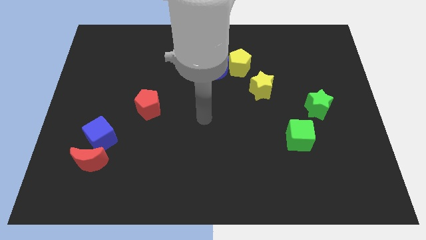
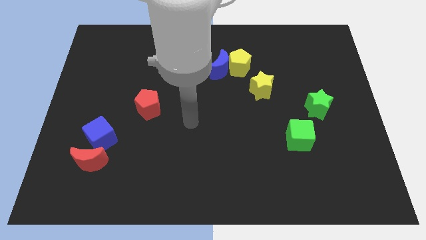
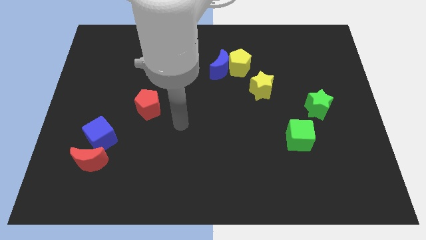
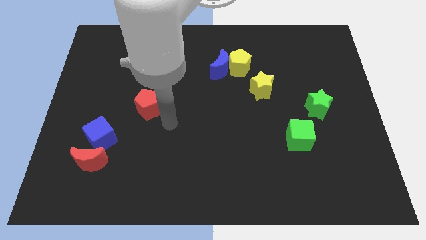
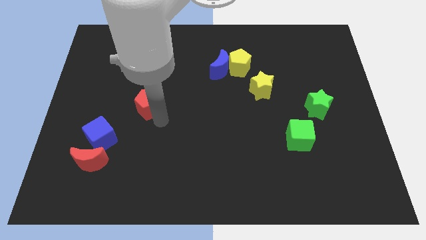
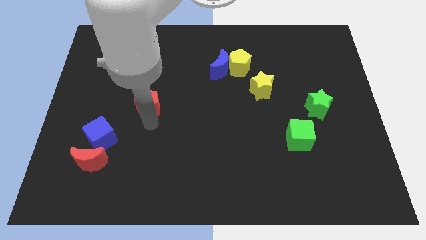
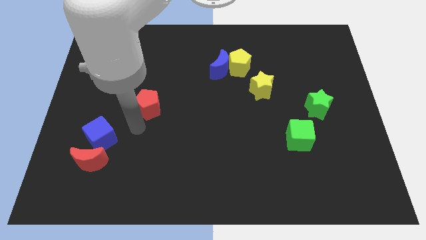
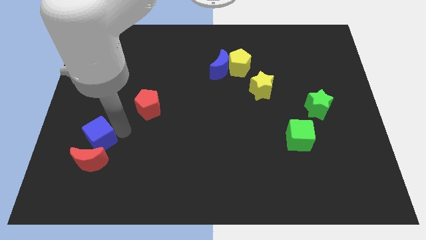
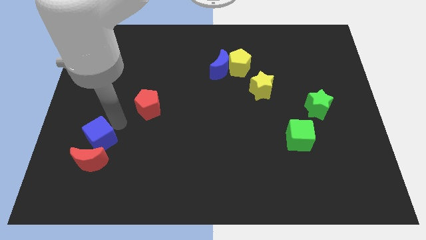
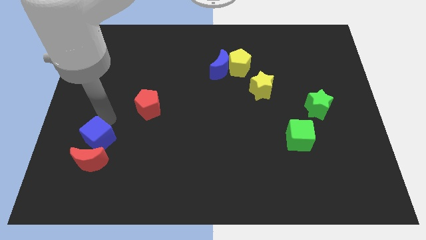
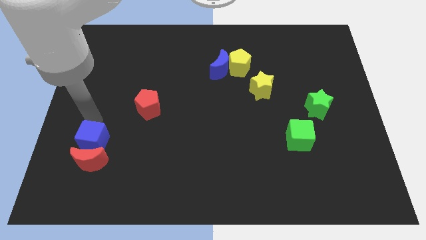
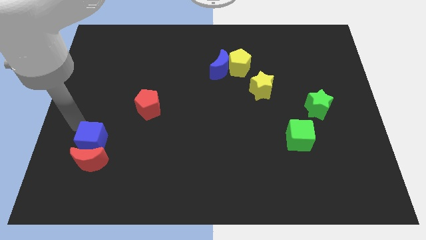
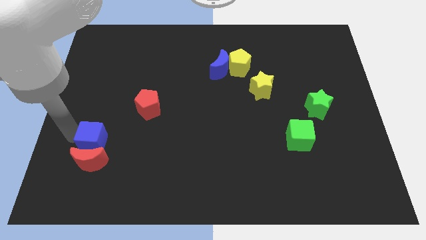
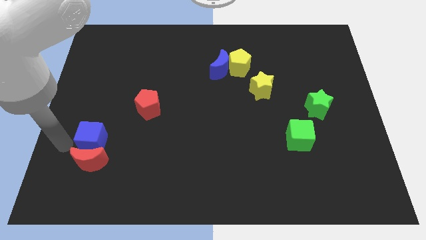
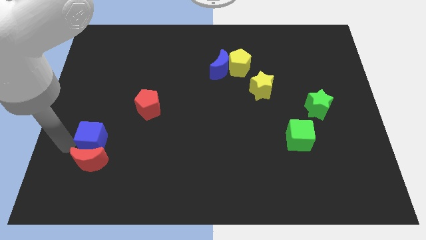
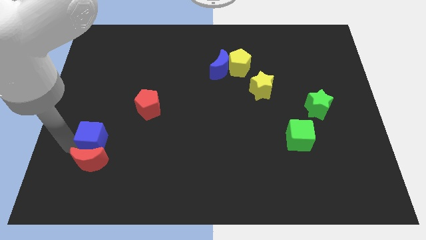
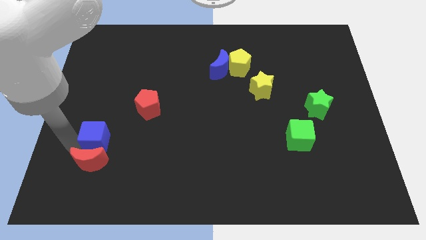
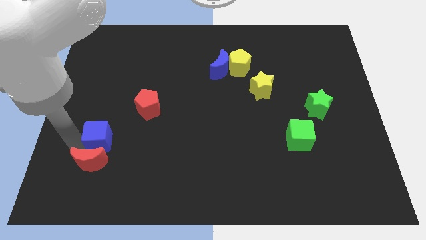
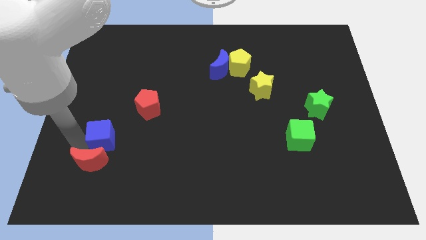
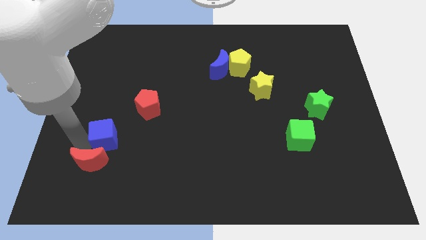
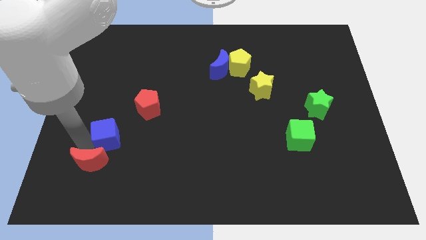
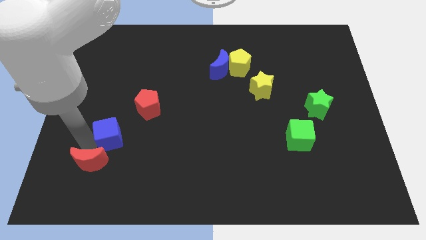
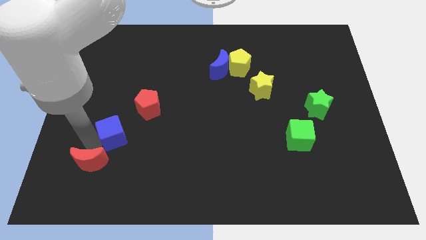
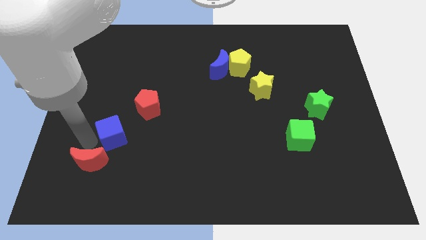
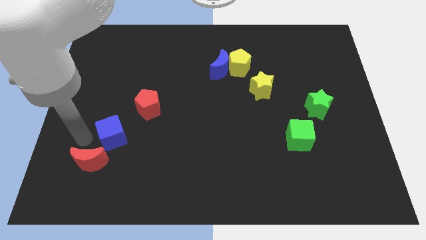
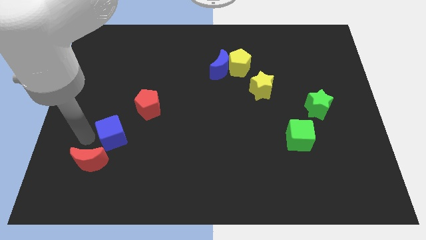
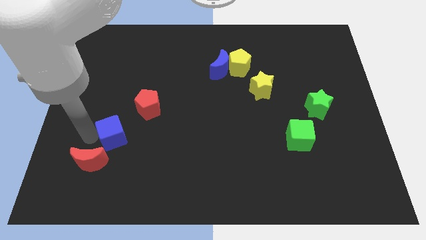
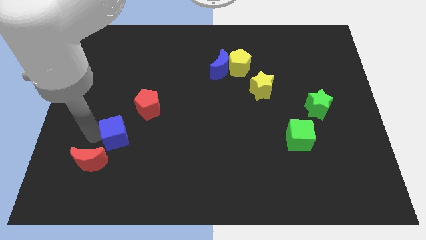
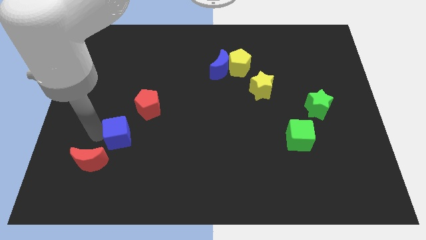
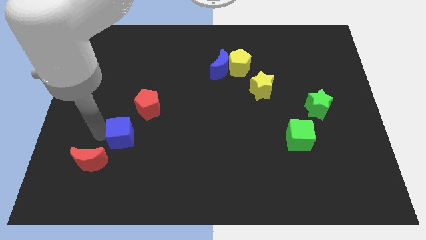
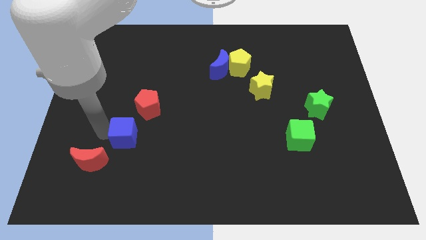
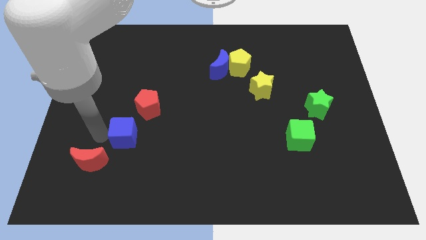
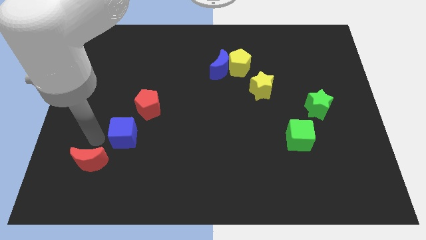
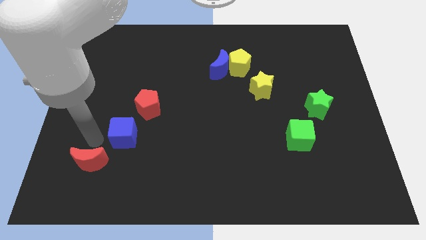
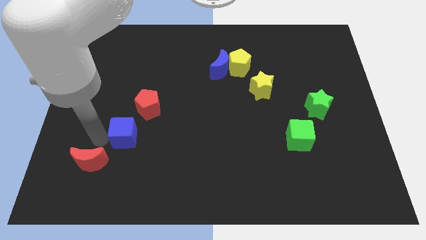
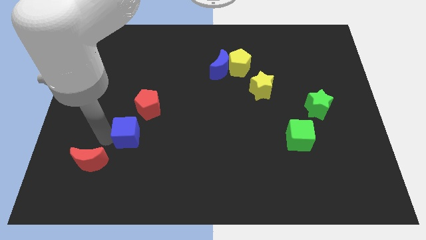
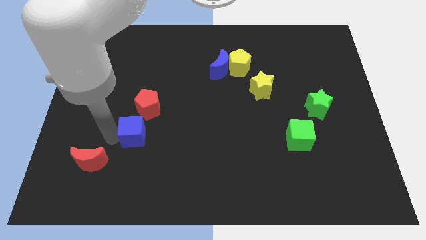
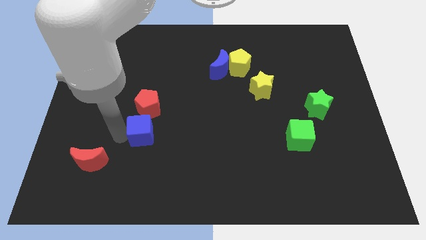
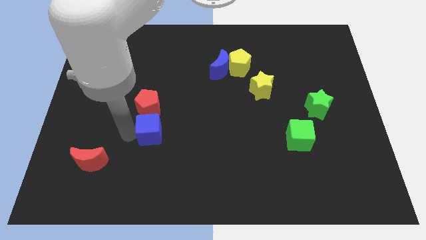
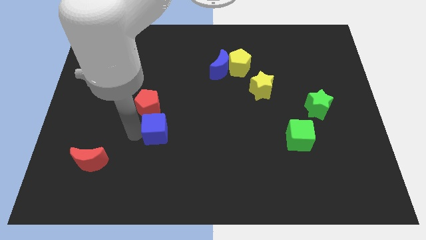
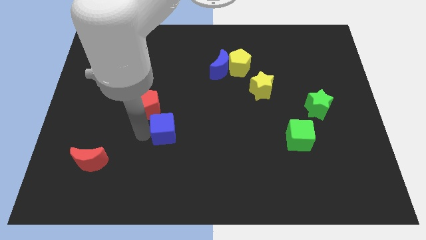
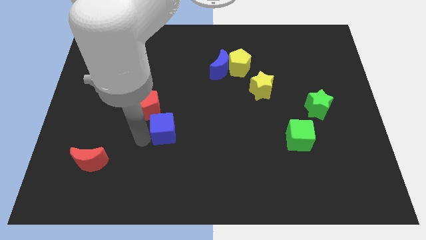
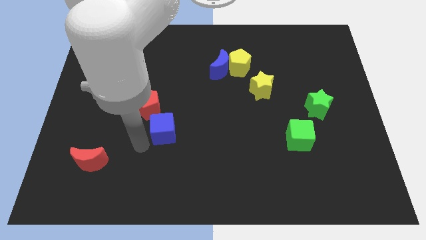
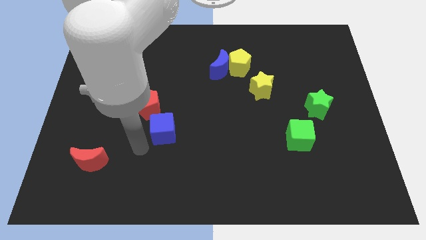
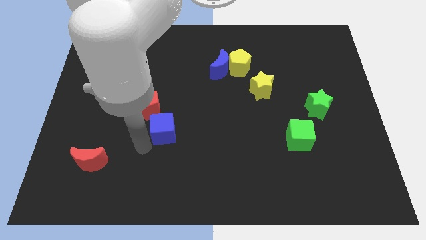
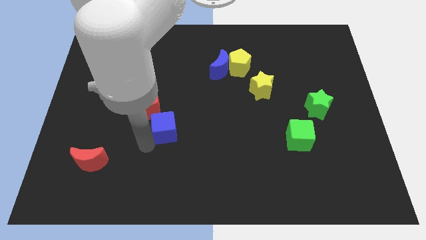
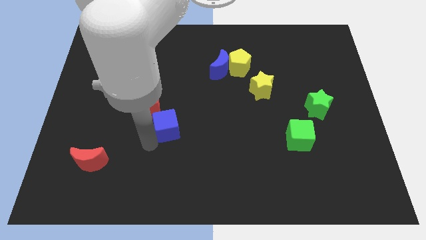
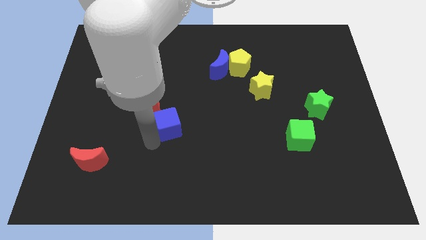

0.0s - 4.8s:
push the blue cube to the center

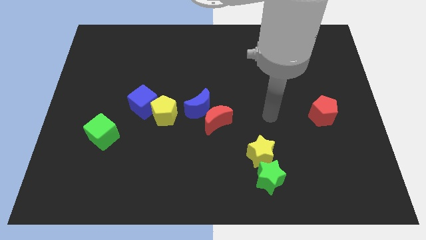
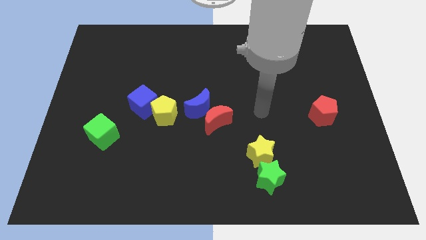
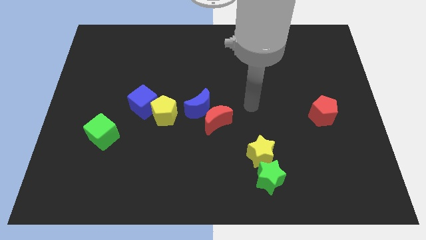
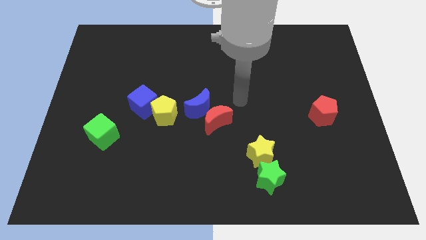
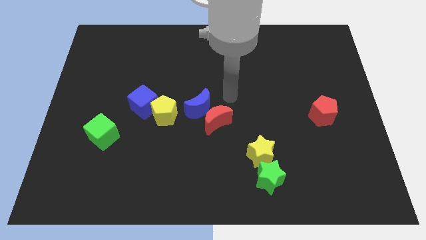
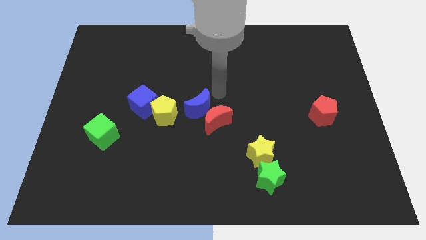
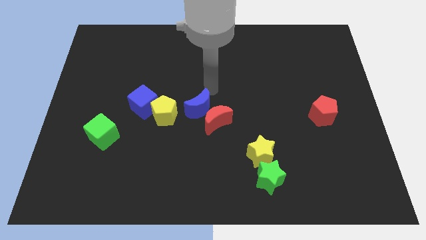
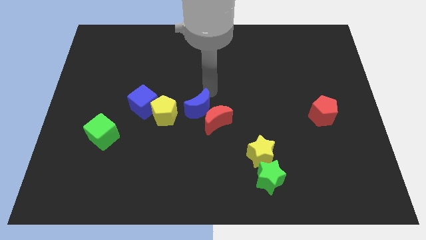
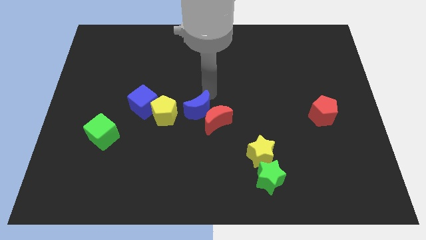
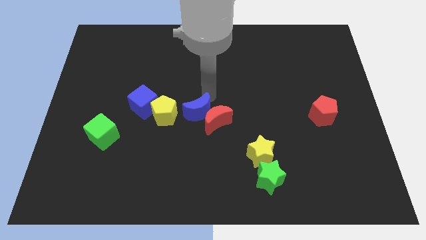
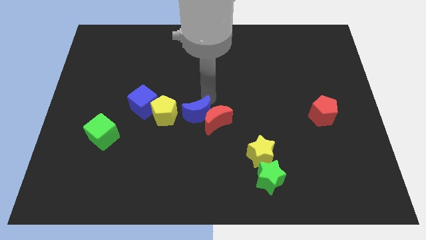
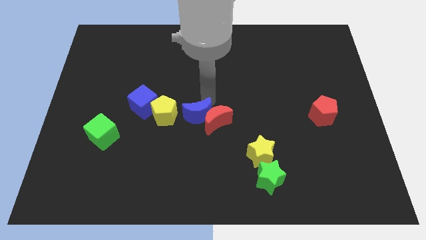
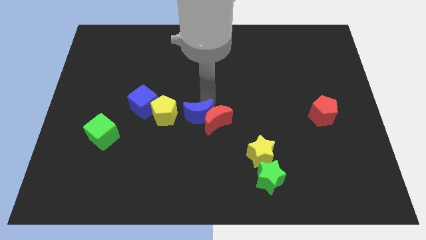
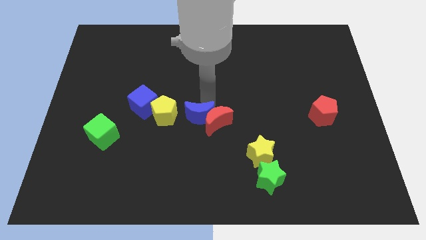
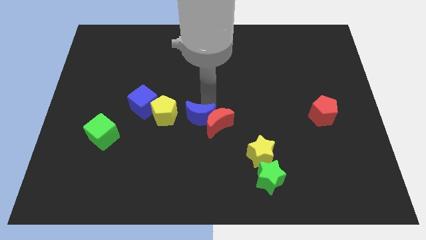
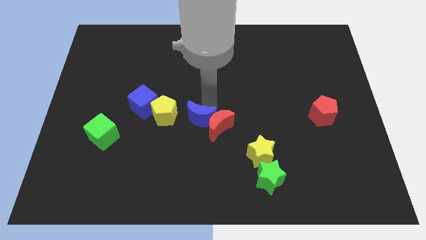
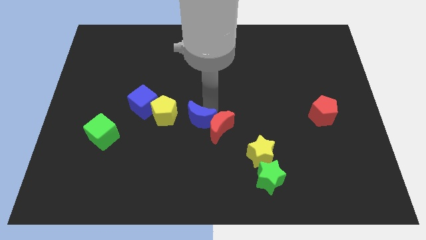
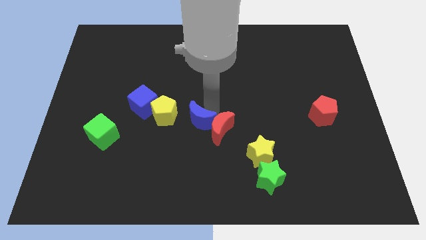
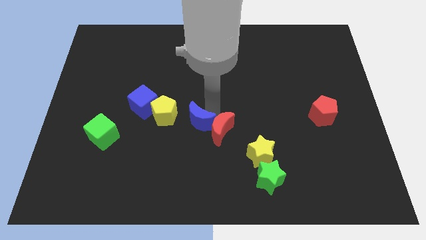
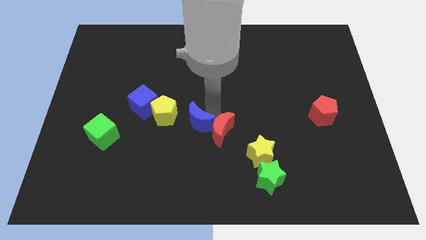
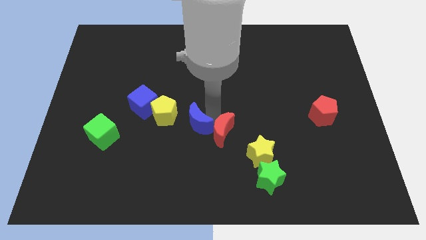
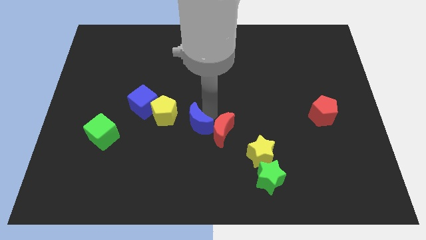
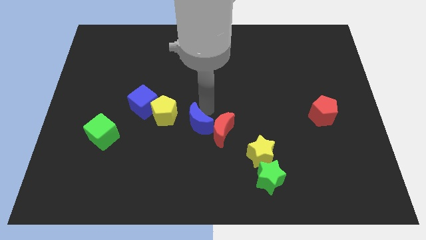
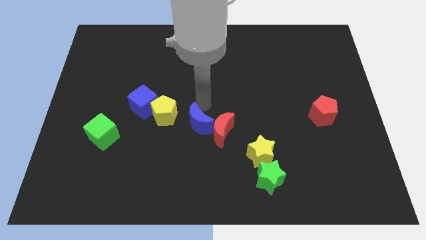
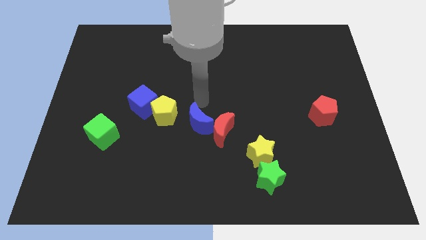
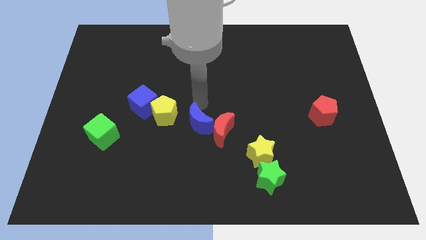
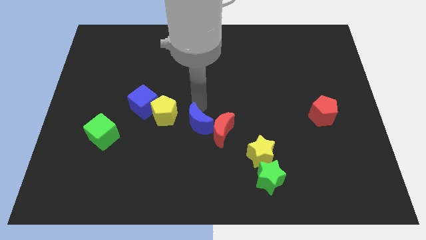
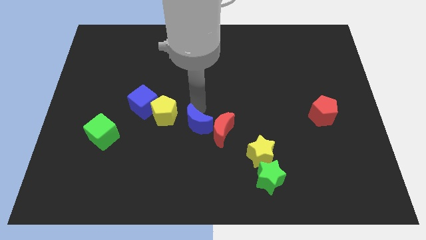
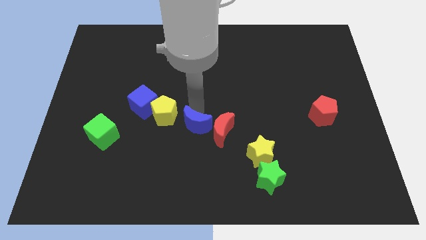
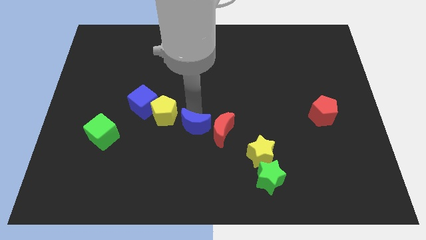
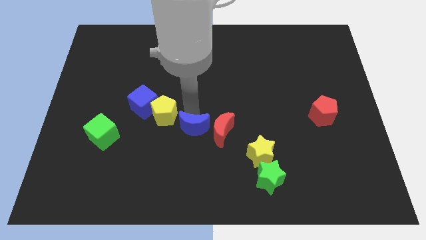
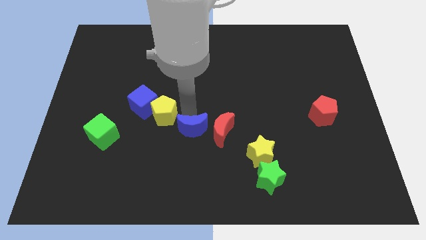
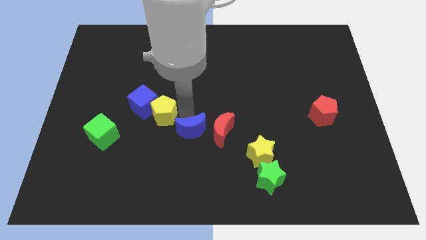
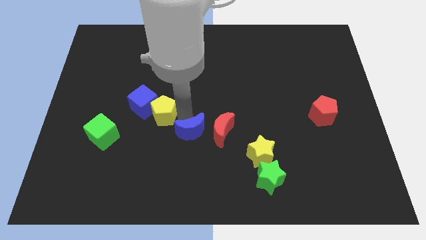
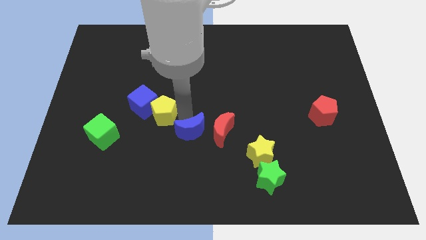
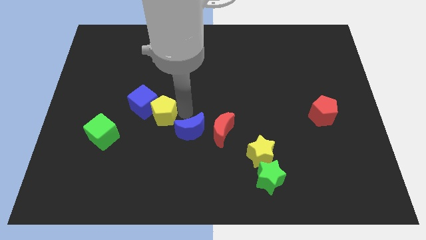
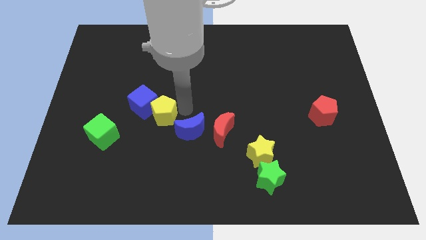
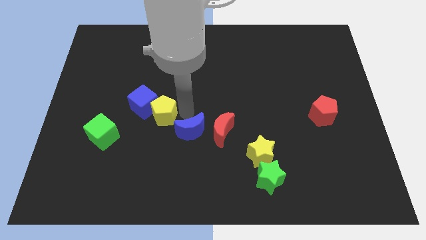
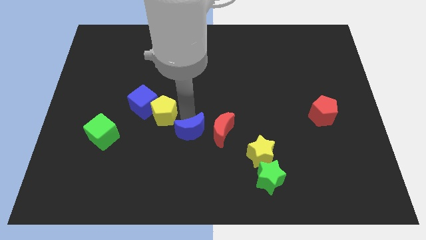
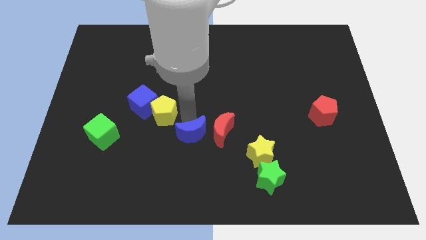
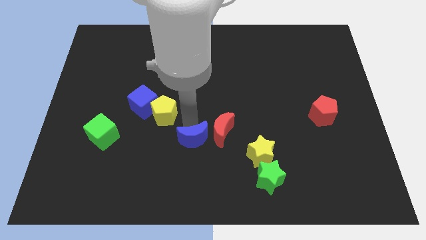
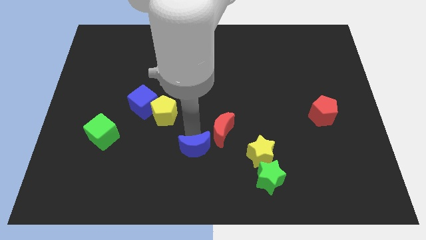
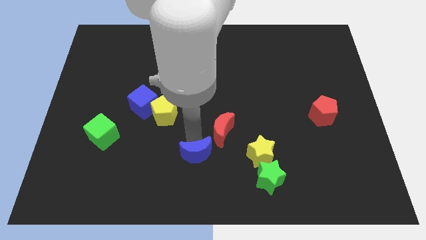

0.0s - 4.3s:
push the blue moon to the bottom
